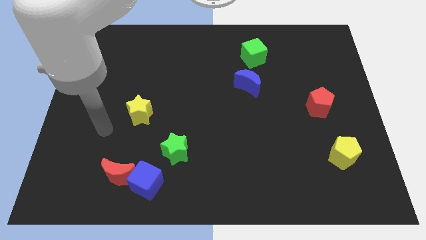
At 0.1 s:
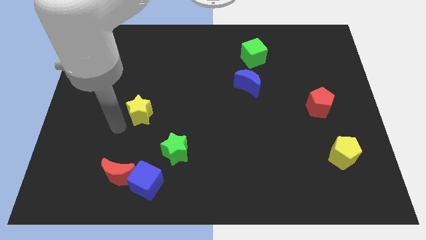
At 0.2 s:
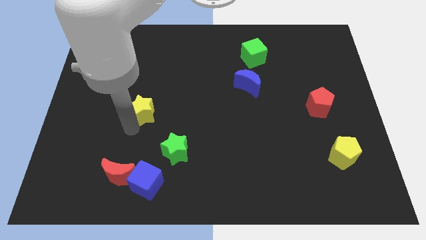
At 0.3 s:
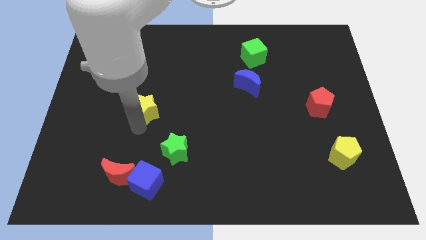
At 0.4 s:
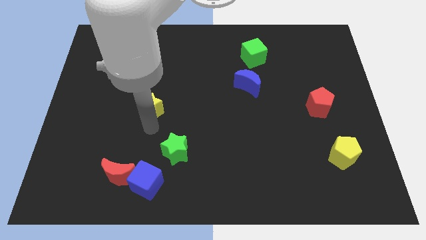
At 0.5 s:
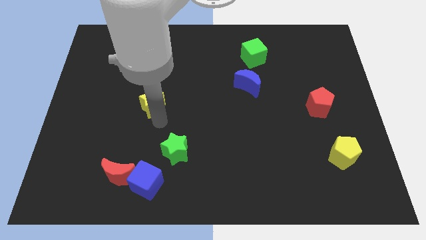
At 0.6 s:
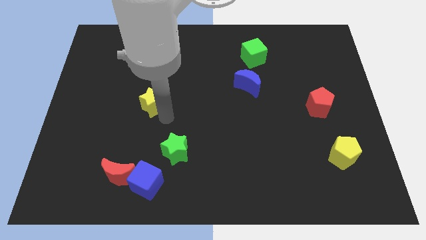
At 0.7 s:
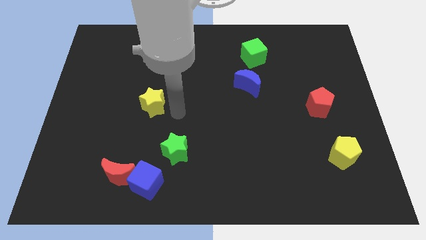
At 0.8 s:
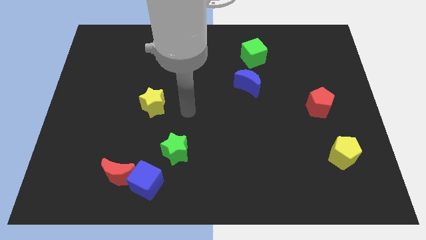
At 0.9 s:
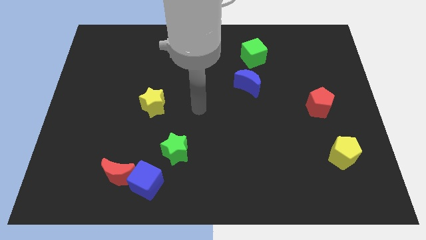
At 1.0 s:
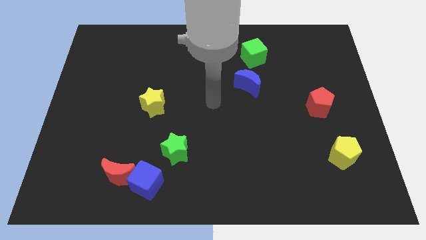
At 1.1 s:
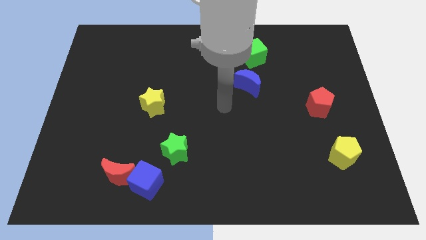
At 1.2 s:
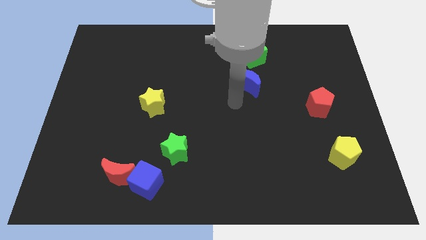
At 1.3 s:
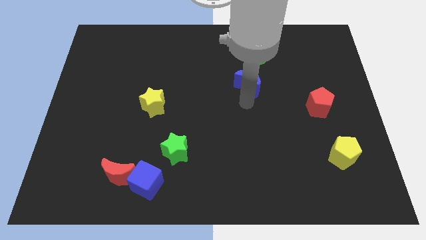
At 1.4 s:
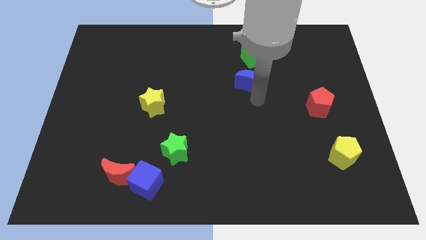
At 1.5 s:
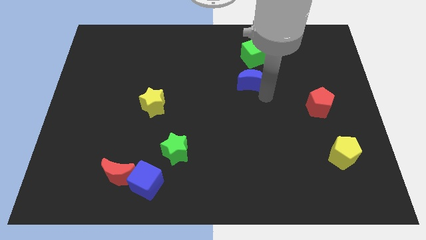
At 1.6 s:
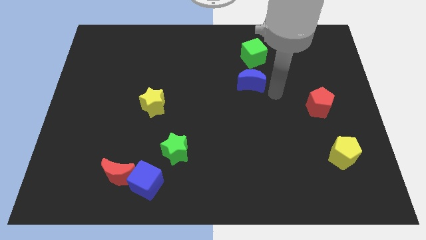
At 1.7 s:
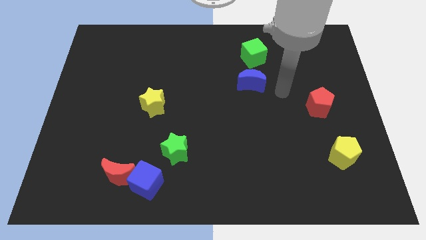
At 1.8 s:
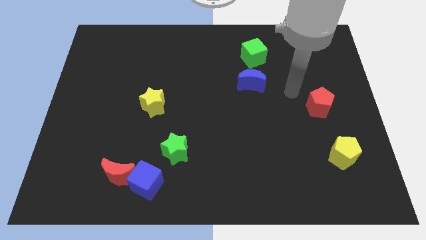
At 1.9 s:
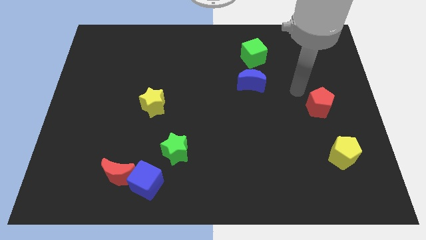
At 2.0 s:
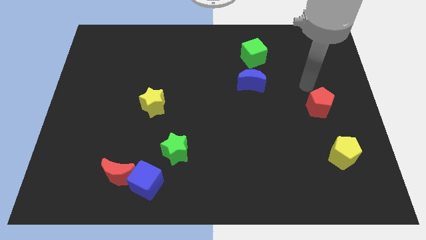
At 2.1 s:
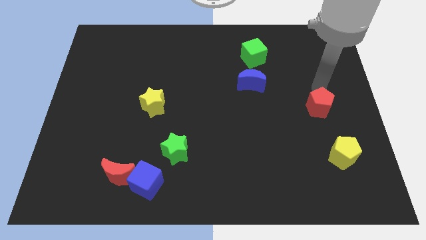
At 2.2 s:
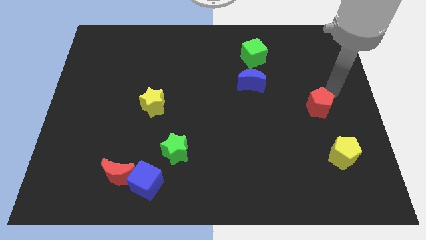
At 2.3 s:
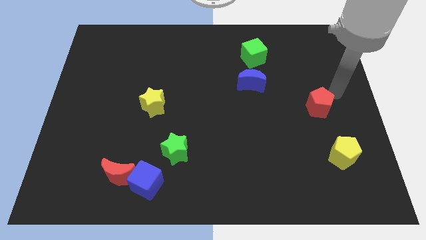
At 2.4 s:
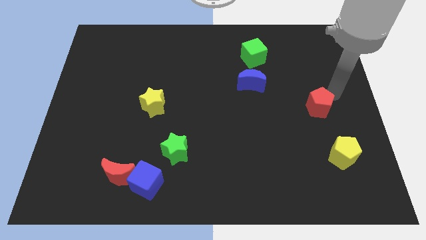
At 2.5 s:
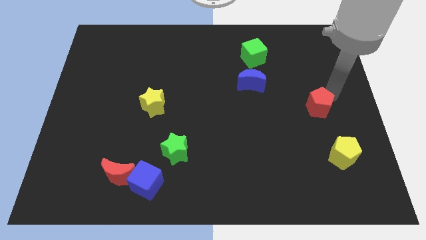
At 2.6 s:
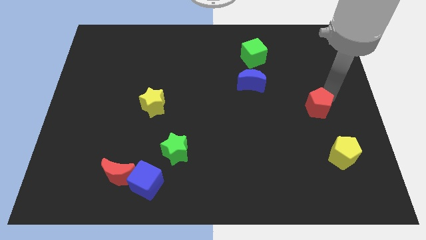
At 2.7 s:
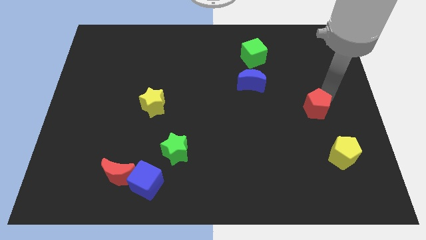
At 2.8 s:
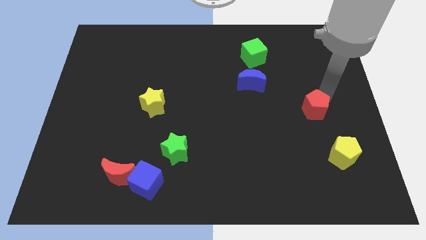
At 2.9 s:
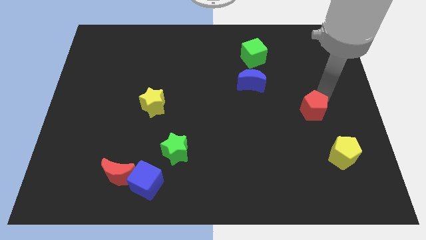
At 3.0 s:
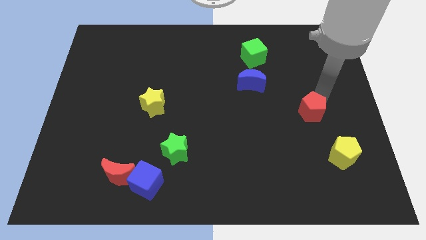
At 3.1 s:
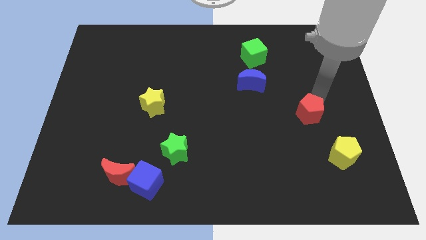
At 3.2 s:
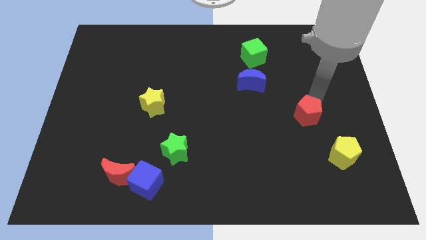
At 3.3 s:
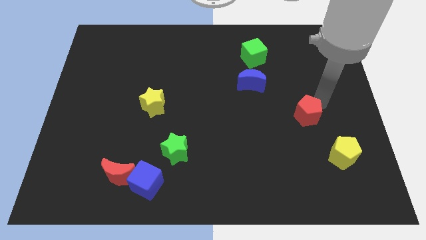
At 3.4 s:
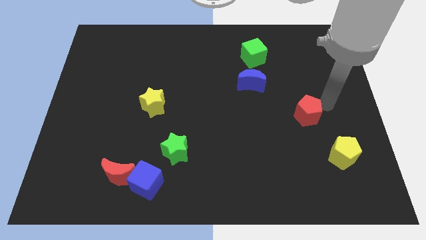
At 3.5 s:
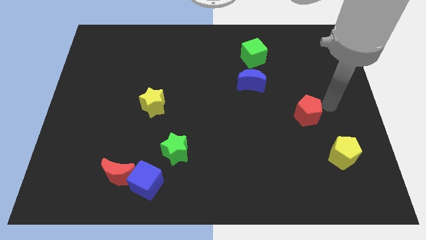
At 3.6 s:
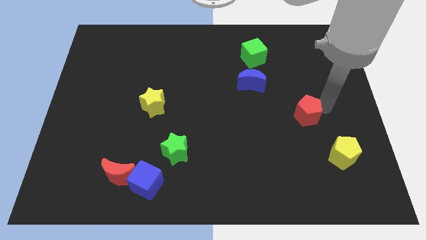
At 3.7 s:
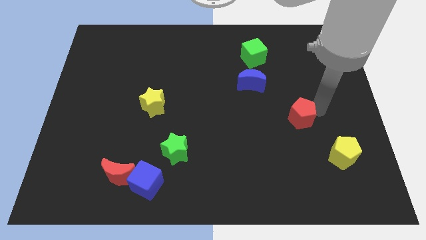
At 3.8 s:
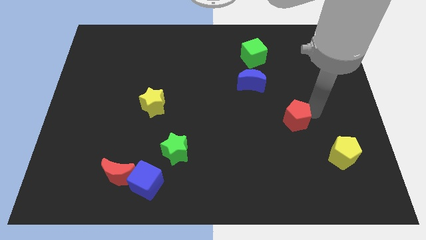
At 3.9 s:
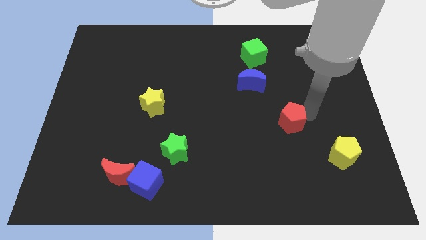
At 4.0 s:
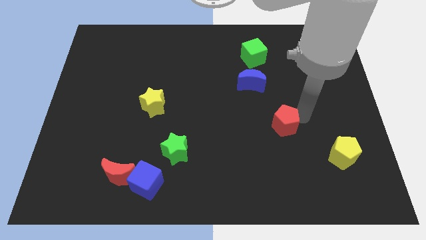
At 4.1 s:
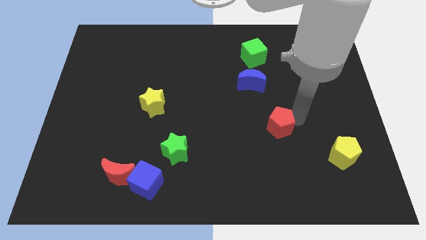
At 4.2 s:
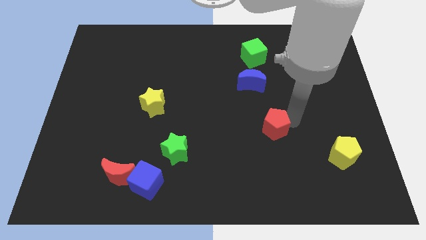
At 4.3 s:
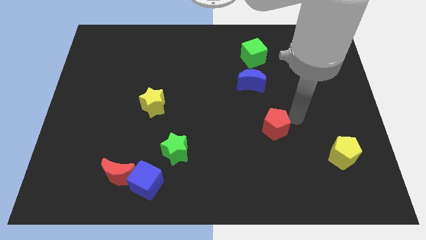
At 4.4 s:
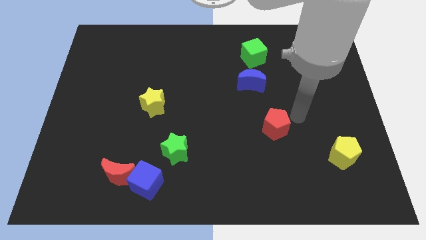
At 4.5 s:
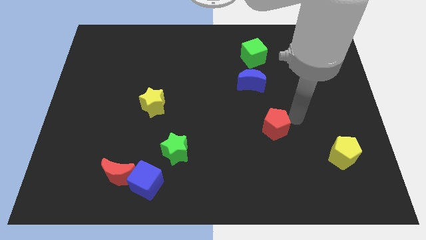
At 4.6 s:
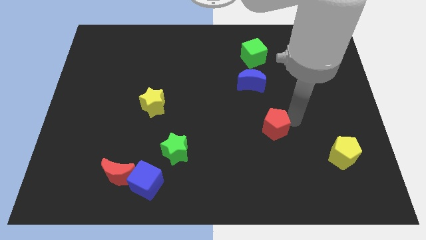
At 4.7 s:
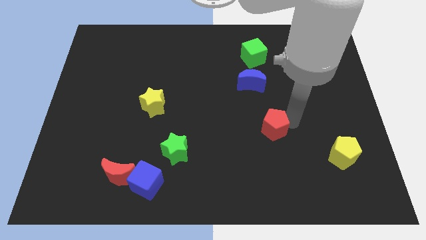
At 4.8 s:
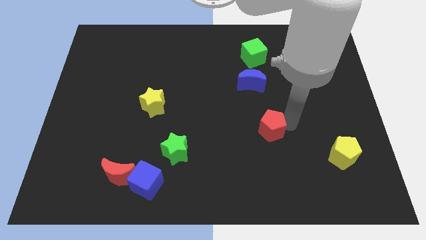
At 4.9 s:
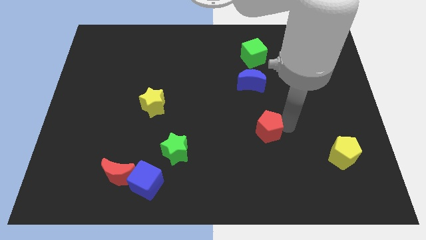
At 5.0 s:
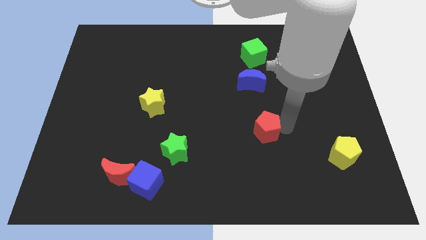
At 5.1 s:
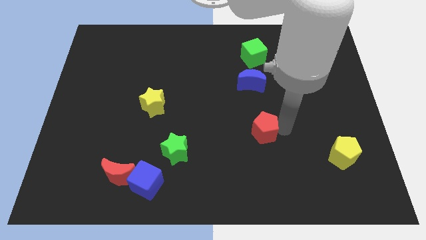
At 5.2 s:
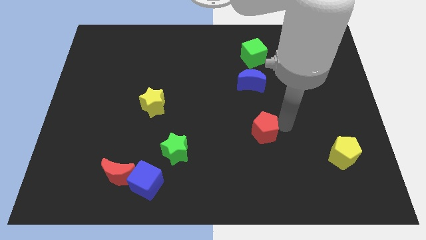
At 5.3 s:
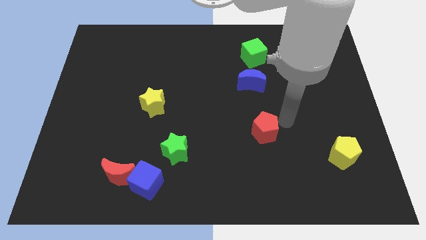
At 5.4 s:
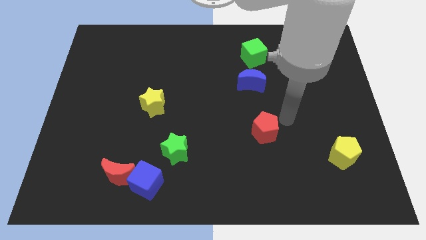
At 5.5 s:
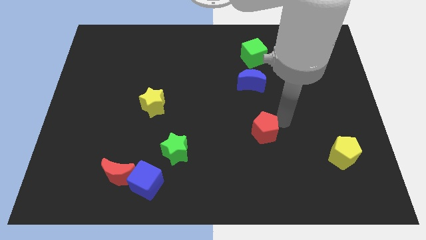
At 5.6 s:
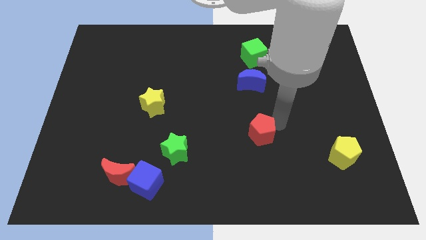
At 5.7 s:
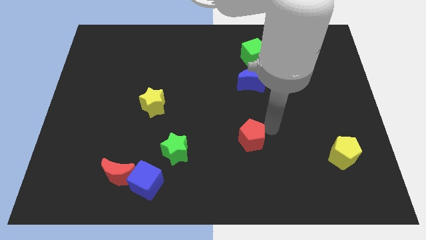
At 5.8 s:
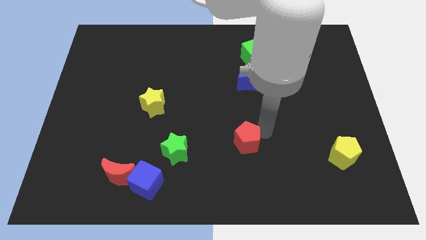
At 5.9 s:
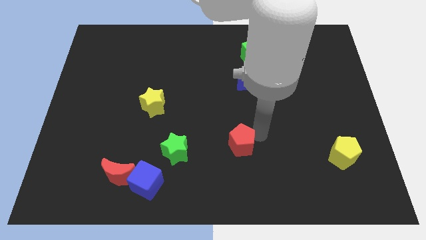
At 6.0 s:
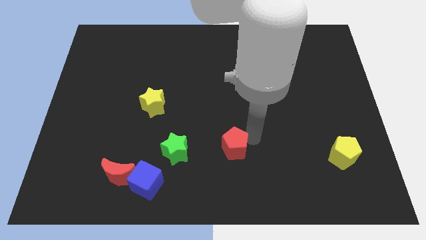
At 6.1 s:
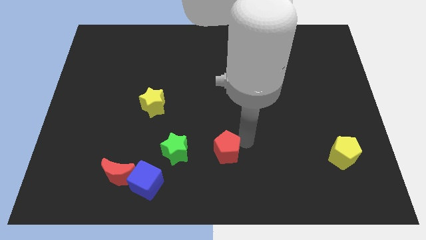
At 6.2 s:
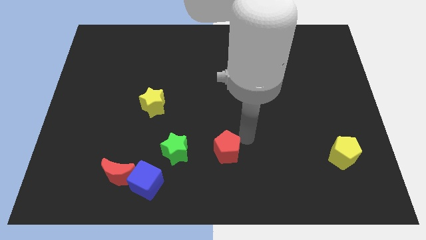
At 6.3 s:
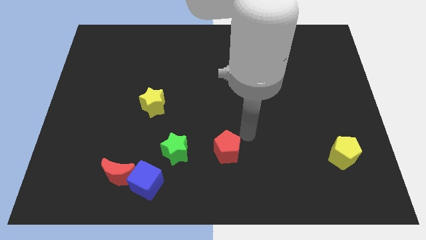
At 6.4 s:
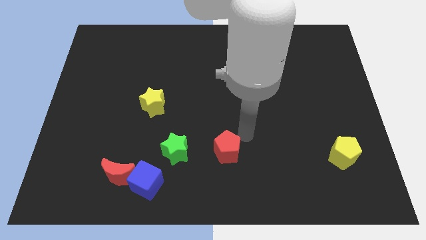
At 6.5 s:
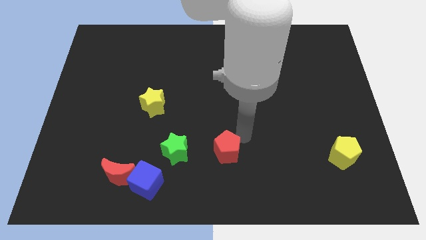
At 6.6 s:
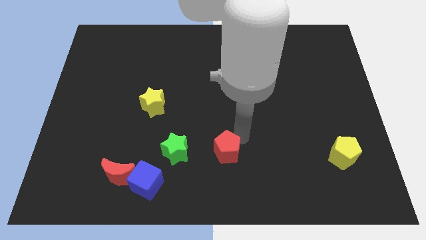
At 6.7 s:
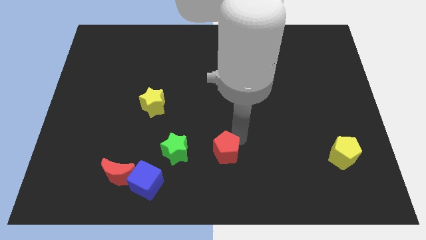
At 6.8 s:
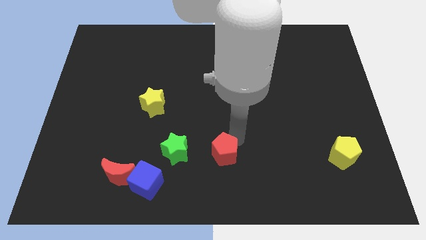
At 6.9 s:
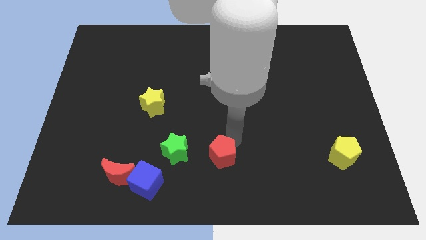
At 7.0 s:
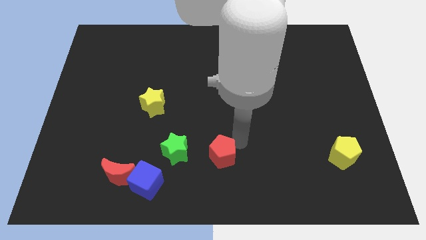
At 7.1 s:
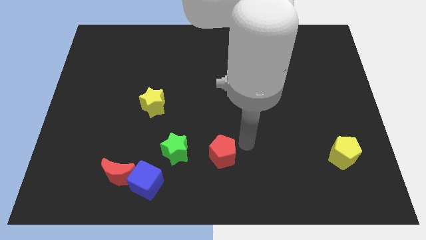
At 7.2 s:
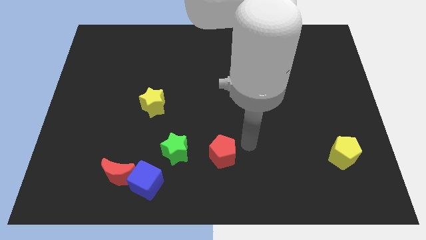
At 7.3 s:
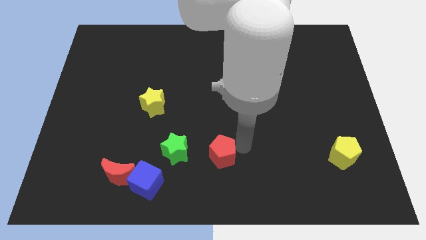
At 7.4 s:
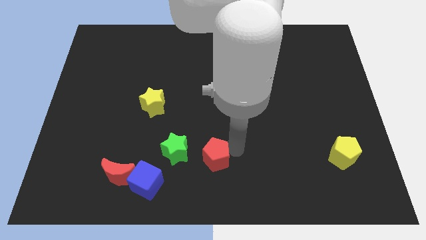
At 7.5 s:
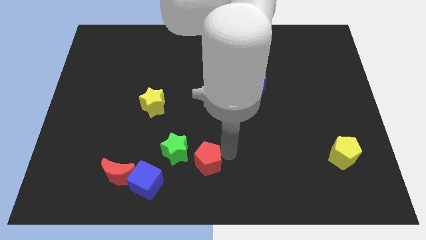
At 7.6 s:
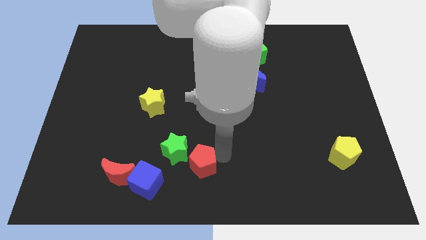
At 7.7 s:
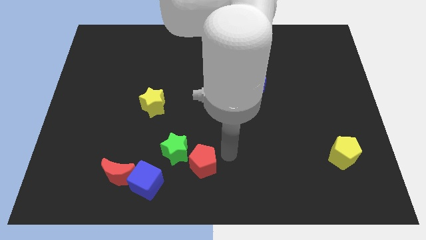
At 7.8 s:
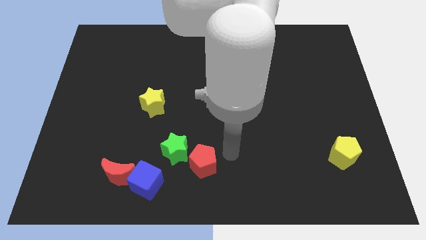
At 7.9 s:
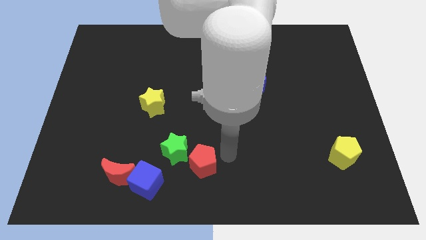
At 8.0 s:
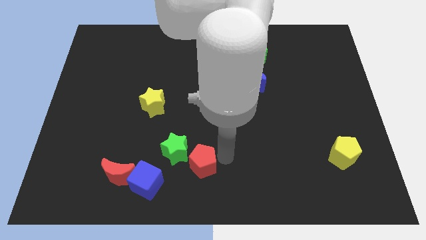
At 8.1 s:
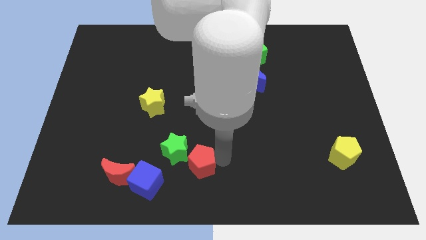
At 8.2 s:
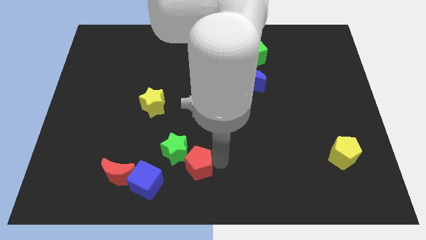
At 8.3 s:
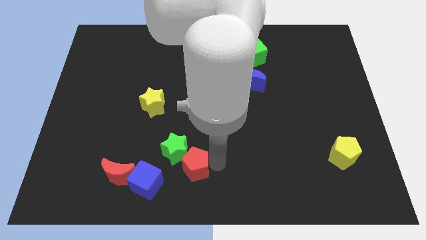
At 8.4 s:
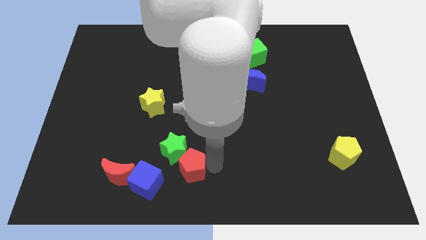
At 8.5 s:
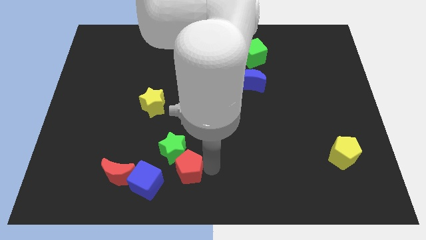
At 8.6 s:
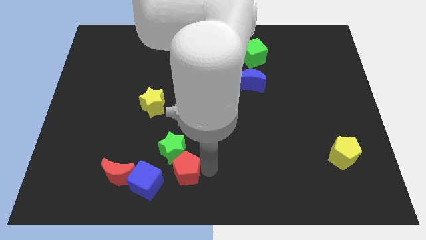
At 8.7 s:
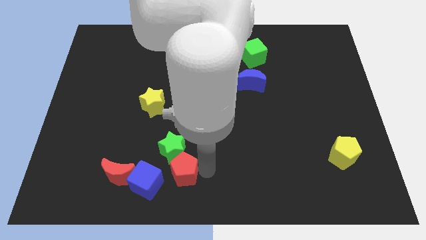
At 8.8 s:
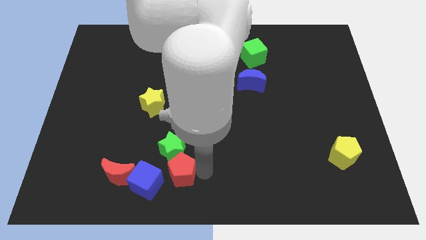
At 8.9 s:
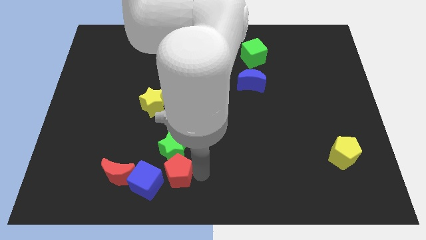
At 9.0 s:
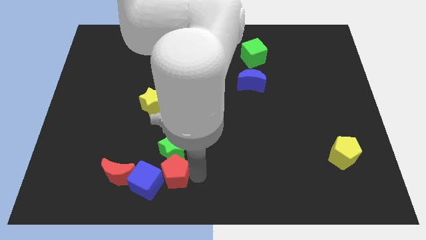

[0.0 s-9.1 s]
put the red pentagon towards the blue cube
